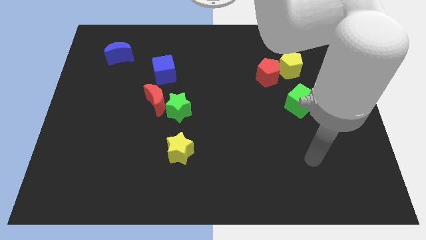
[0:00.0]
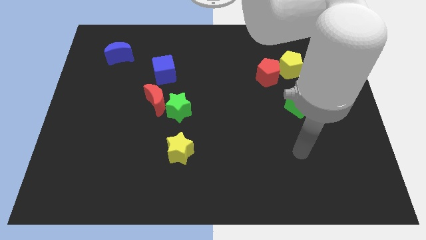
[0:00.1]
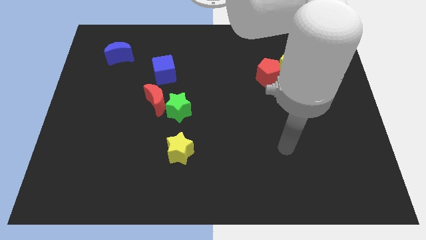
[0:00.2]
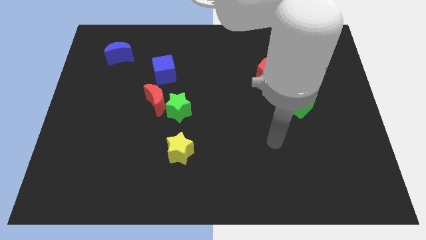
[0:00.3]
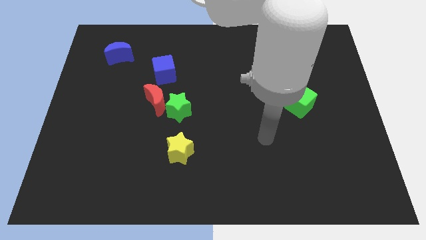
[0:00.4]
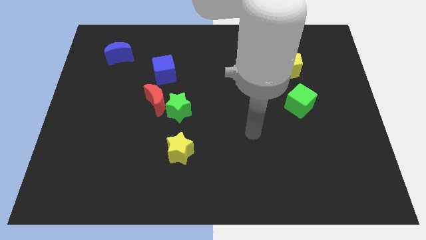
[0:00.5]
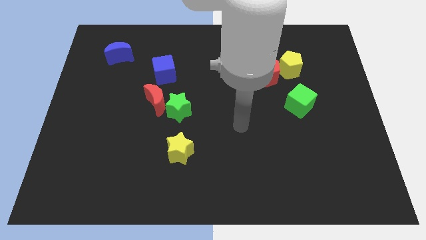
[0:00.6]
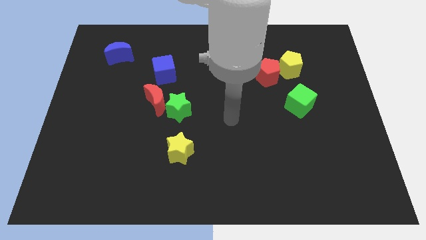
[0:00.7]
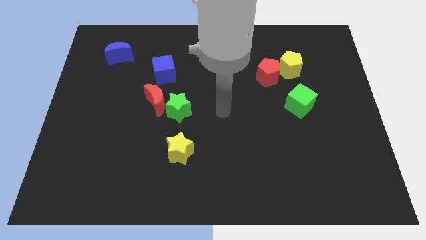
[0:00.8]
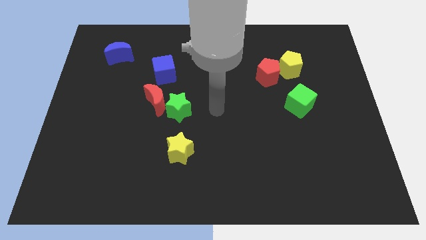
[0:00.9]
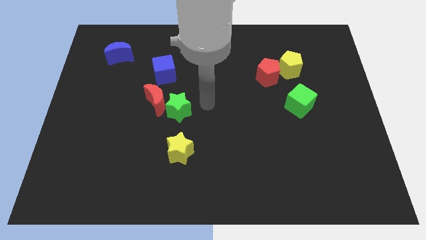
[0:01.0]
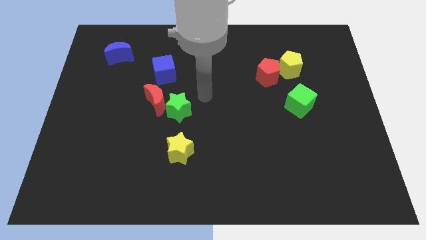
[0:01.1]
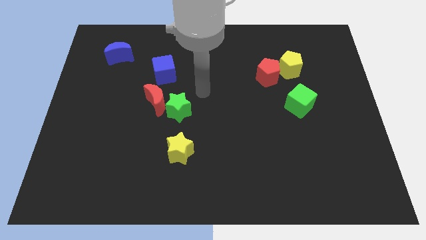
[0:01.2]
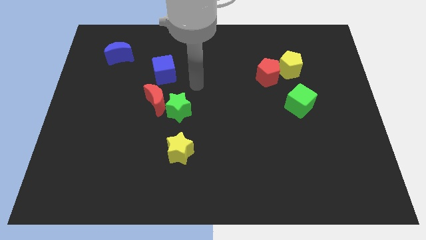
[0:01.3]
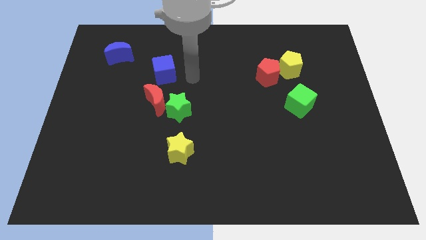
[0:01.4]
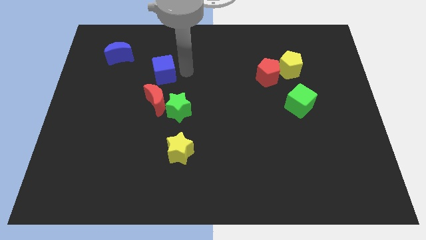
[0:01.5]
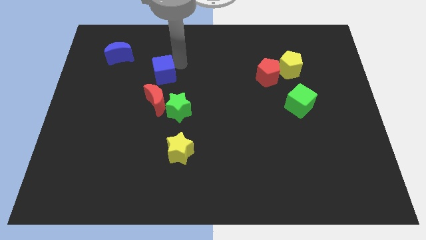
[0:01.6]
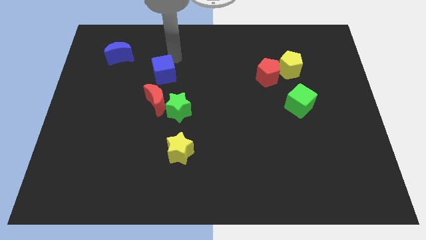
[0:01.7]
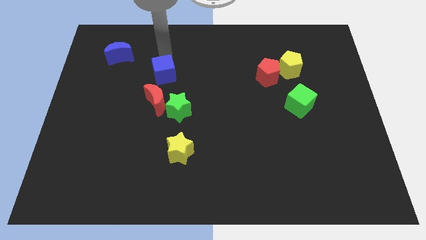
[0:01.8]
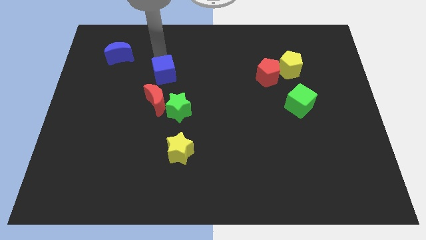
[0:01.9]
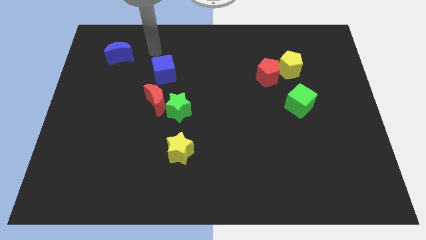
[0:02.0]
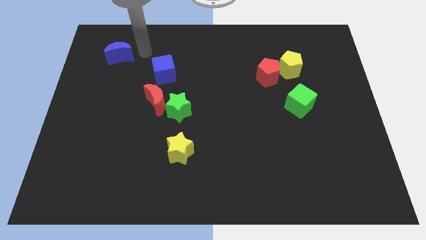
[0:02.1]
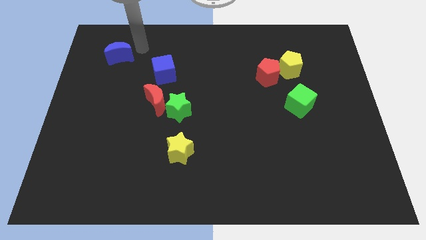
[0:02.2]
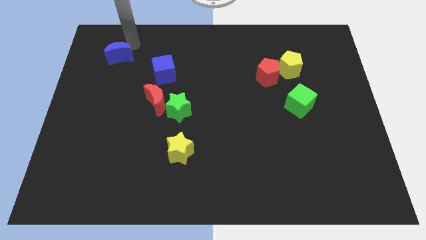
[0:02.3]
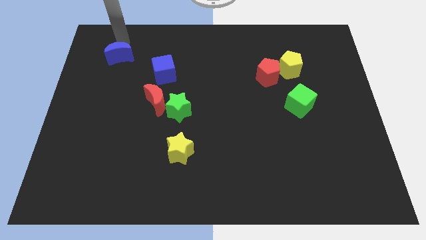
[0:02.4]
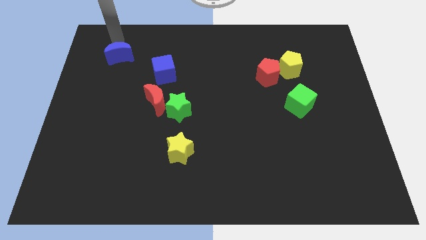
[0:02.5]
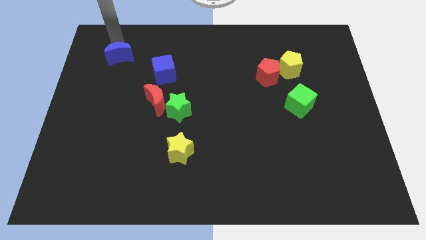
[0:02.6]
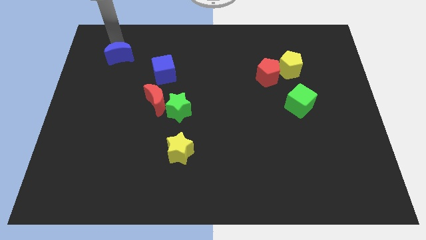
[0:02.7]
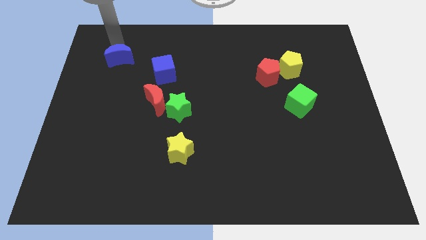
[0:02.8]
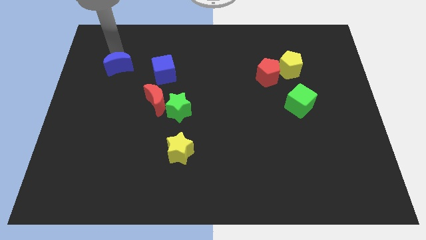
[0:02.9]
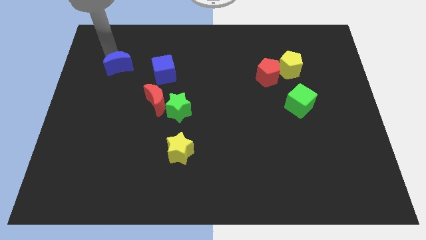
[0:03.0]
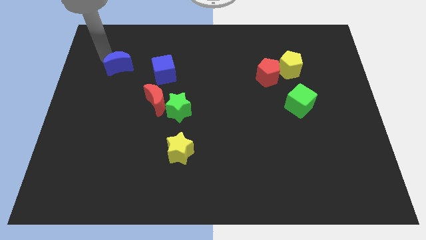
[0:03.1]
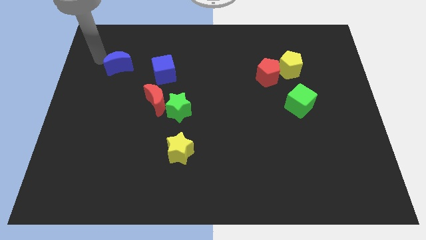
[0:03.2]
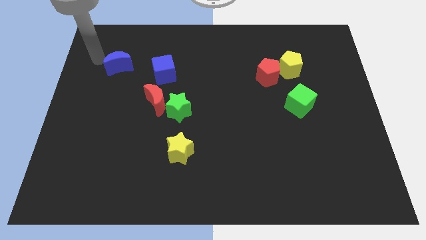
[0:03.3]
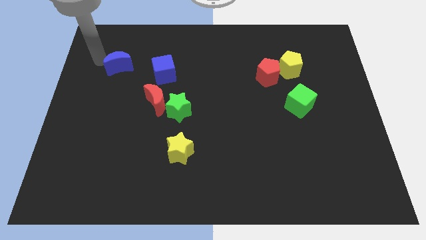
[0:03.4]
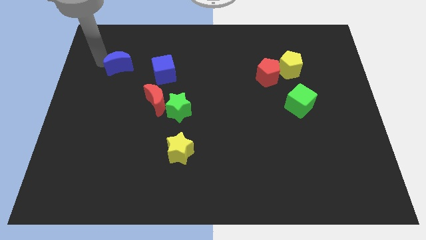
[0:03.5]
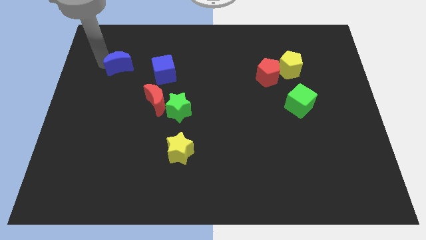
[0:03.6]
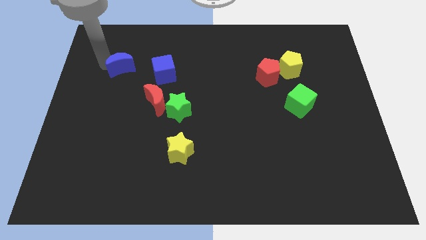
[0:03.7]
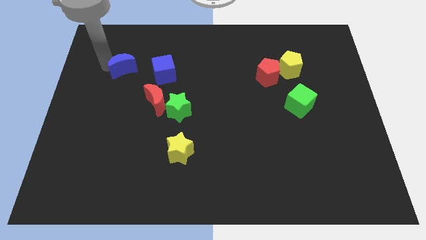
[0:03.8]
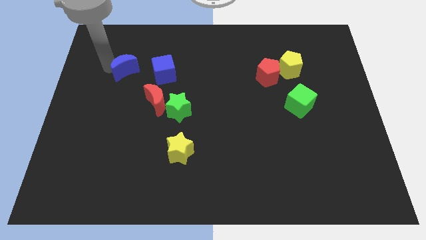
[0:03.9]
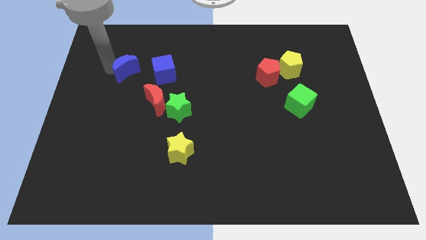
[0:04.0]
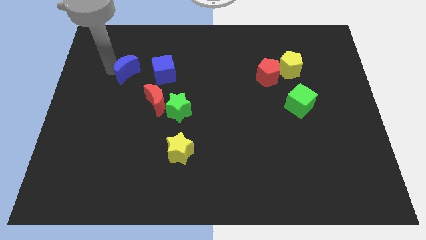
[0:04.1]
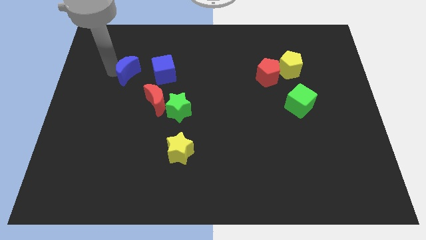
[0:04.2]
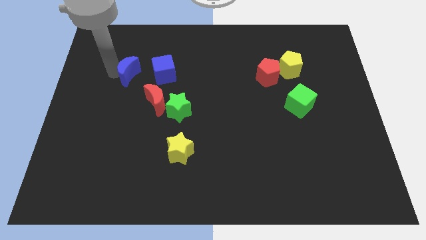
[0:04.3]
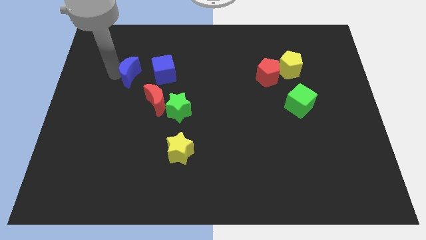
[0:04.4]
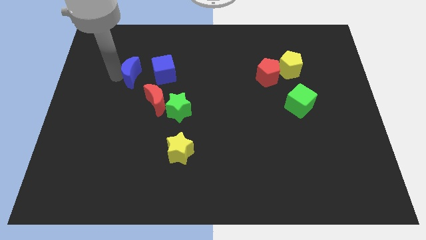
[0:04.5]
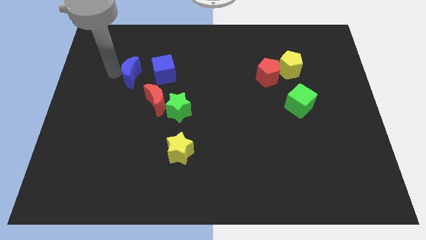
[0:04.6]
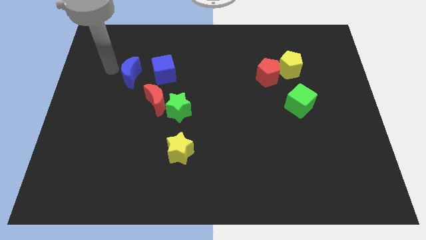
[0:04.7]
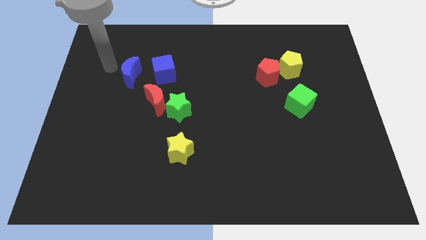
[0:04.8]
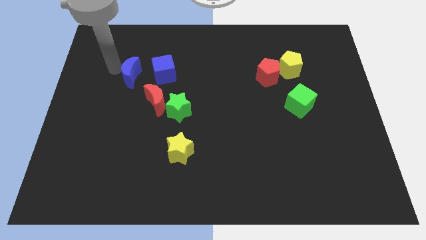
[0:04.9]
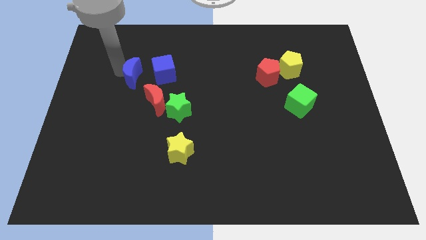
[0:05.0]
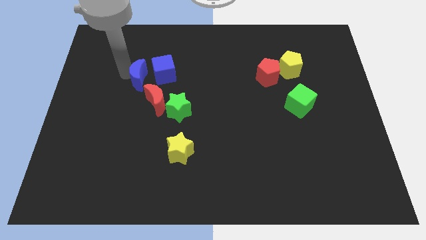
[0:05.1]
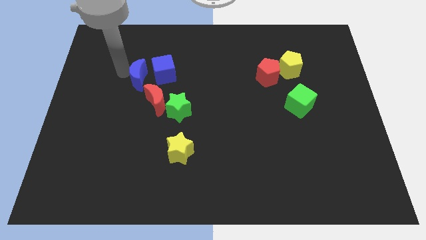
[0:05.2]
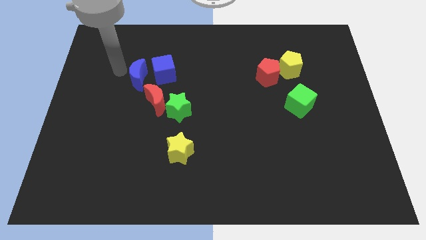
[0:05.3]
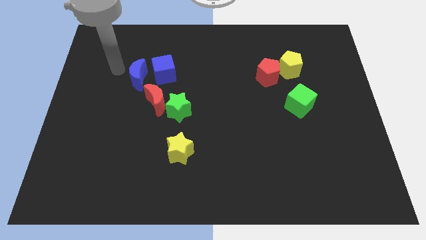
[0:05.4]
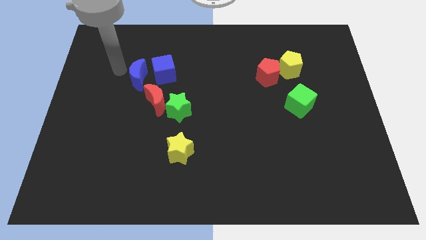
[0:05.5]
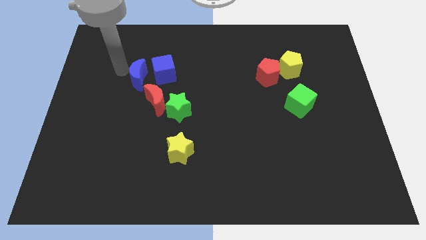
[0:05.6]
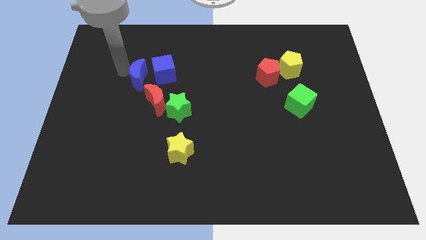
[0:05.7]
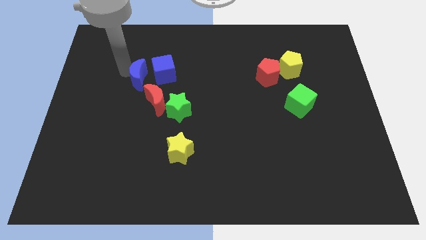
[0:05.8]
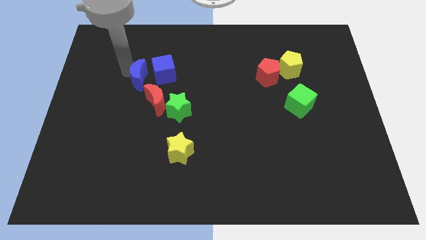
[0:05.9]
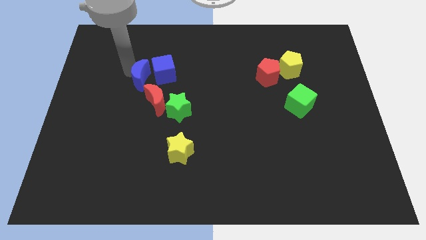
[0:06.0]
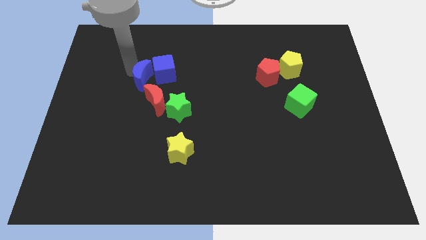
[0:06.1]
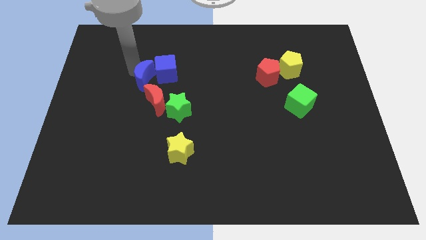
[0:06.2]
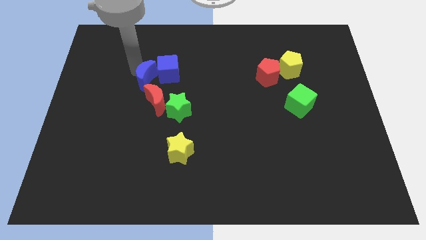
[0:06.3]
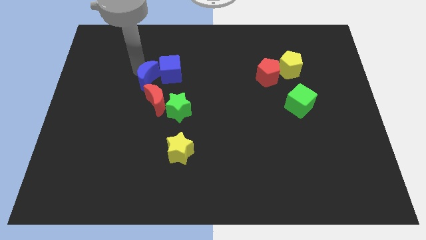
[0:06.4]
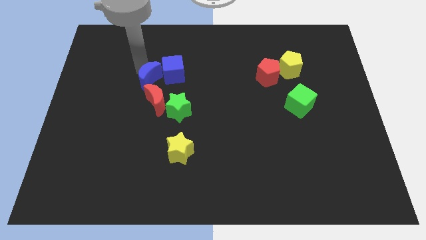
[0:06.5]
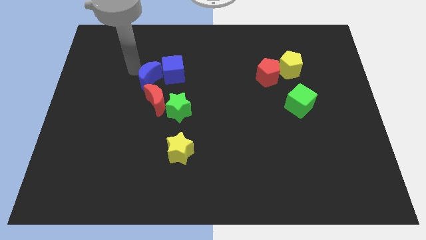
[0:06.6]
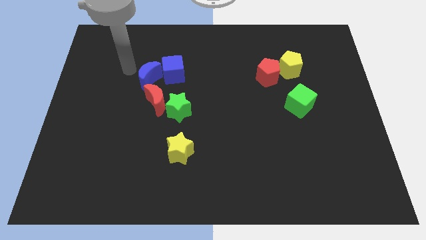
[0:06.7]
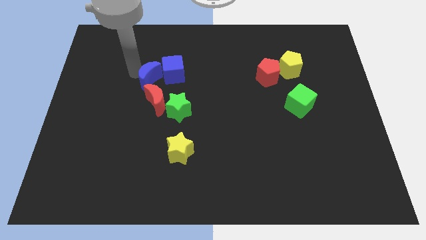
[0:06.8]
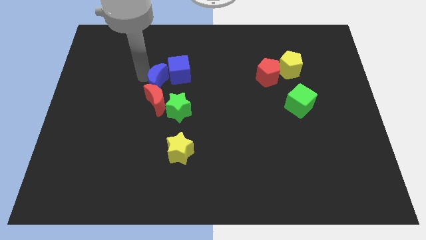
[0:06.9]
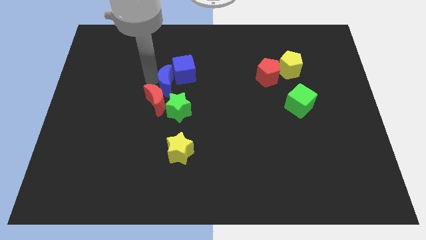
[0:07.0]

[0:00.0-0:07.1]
move the blue moon to the middle
